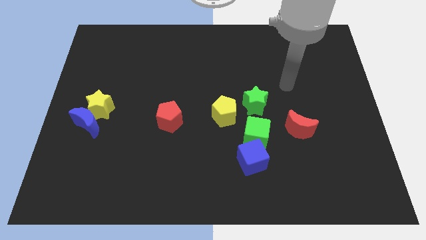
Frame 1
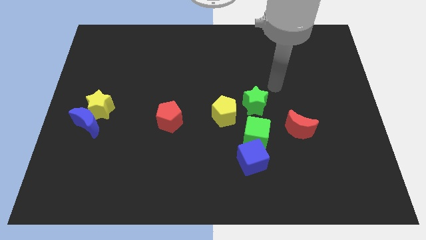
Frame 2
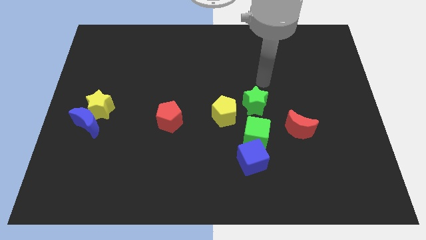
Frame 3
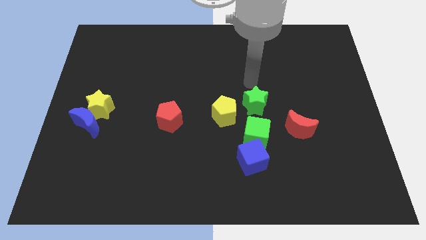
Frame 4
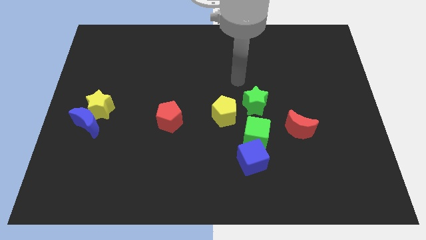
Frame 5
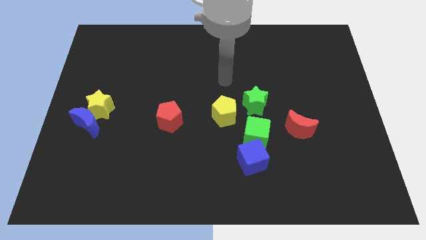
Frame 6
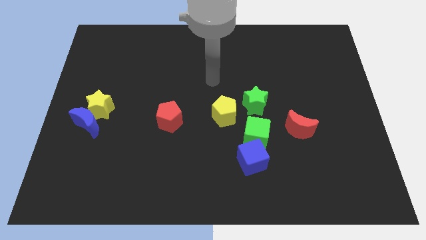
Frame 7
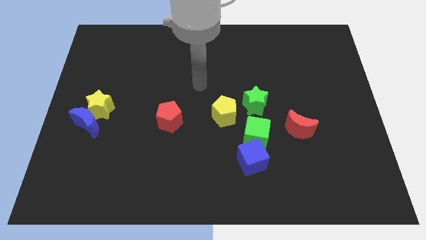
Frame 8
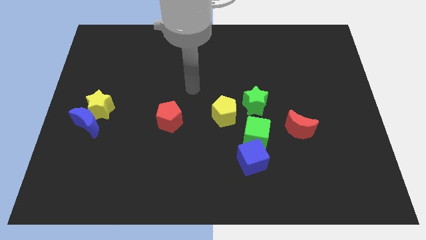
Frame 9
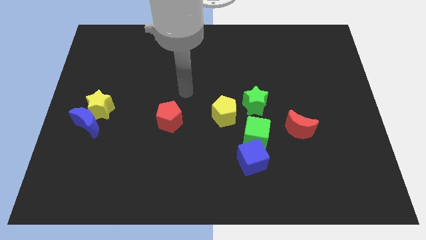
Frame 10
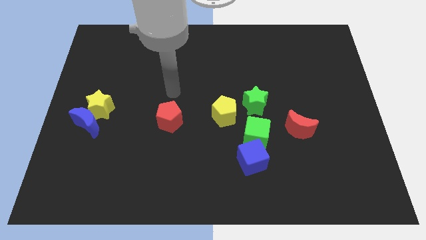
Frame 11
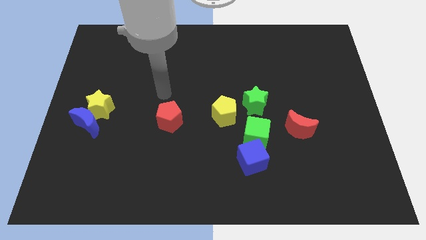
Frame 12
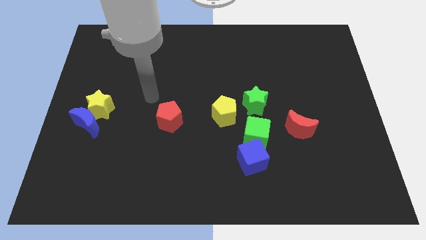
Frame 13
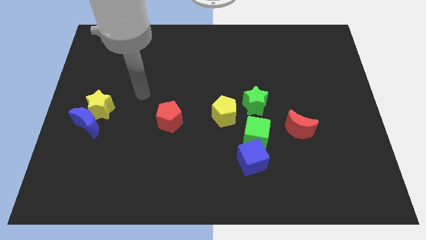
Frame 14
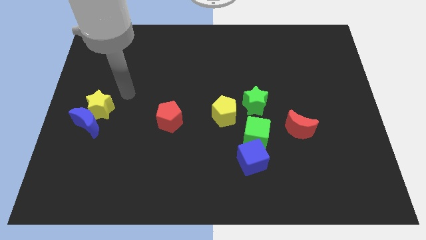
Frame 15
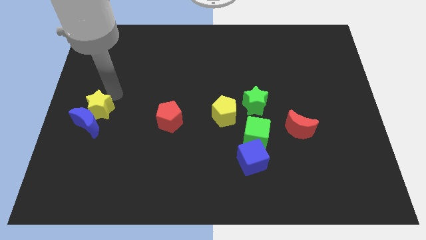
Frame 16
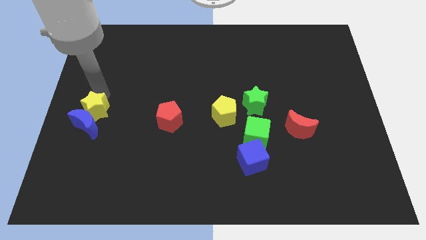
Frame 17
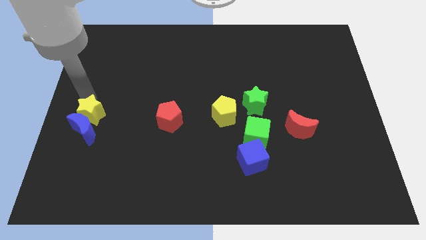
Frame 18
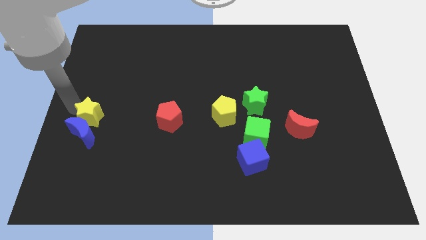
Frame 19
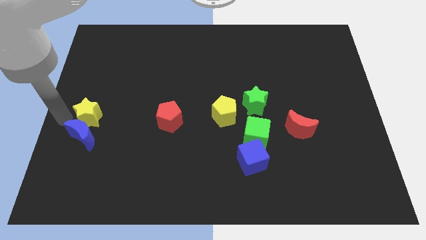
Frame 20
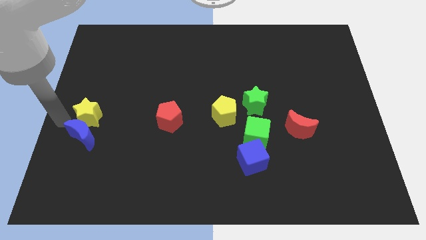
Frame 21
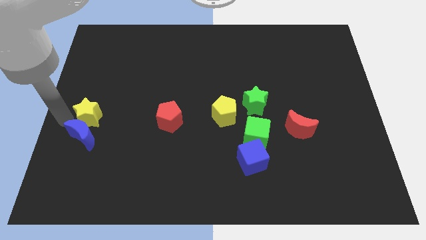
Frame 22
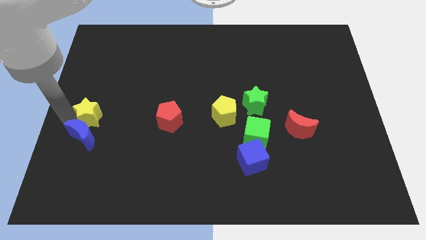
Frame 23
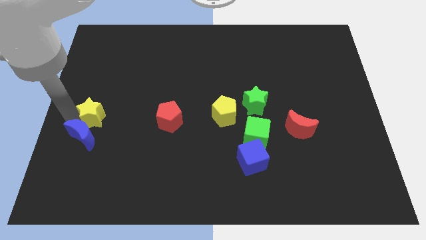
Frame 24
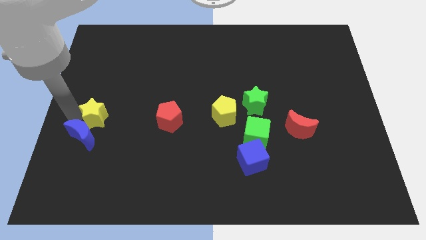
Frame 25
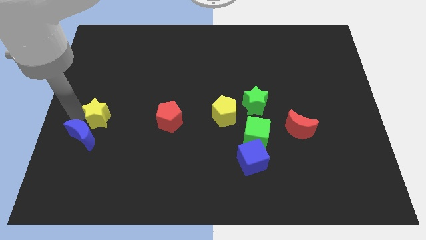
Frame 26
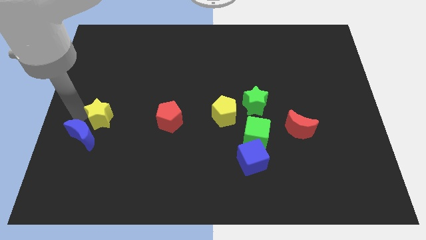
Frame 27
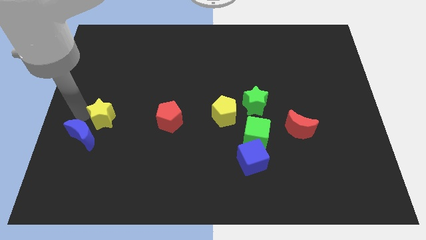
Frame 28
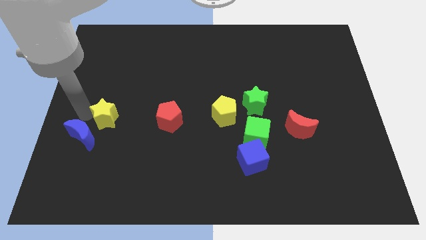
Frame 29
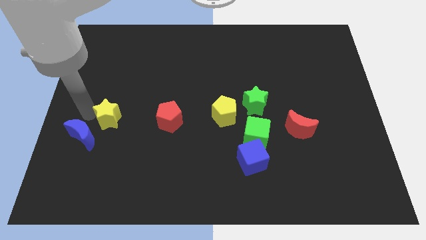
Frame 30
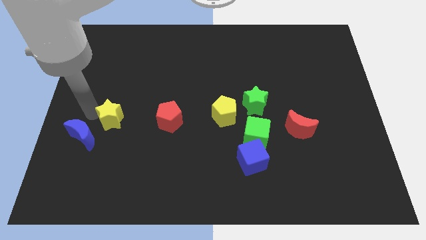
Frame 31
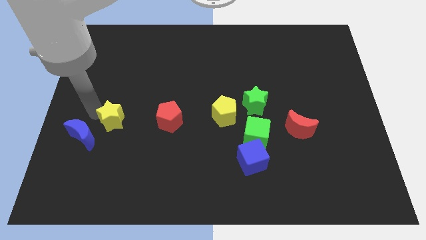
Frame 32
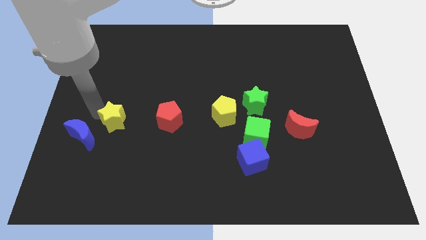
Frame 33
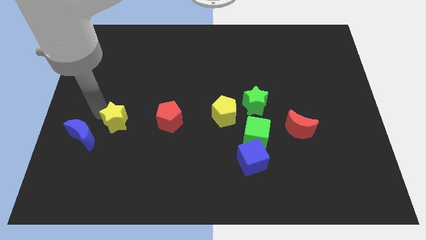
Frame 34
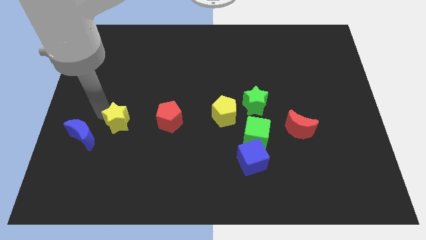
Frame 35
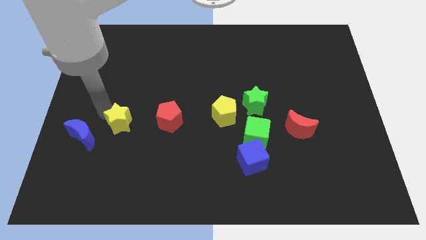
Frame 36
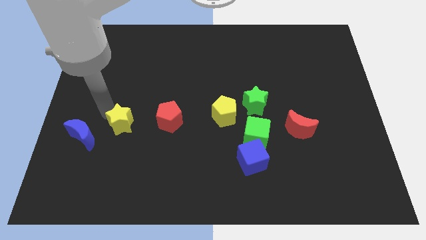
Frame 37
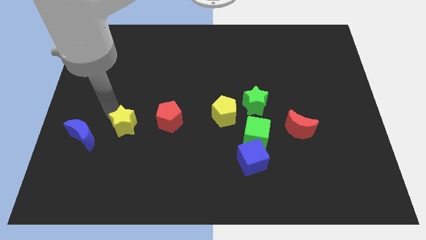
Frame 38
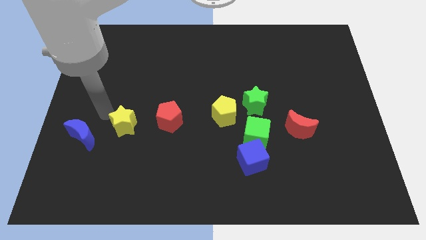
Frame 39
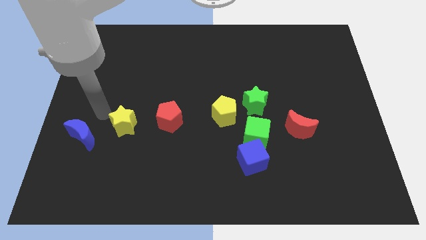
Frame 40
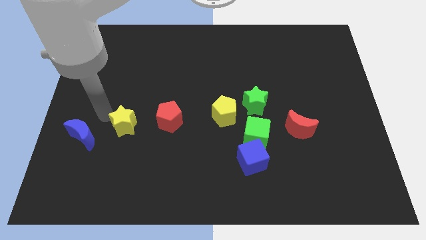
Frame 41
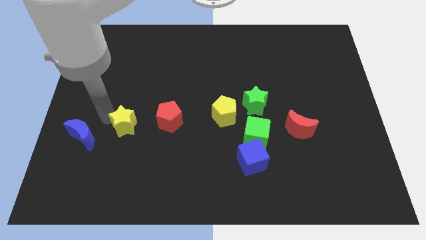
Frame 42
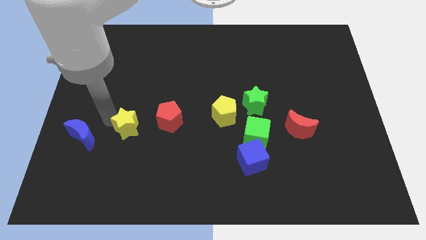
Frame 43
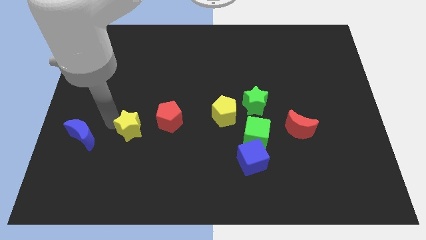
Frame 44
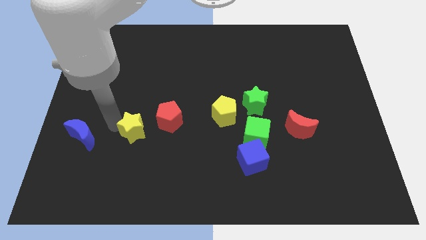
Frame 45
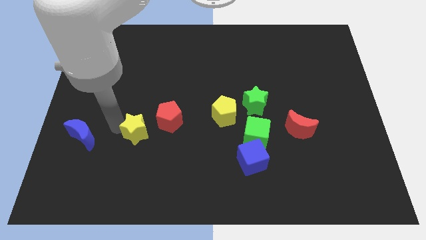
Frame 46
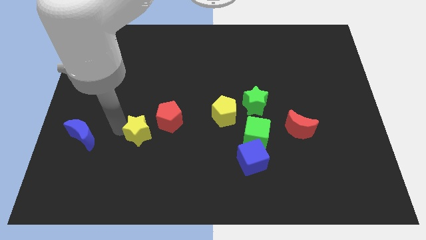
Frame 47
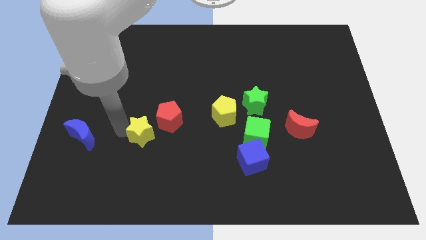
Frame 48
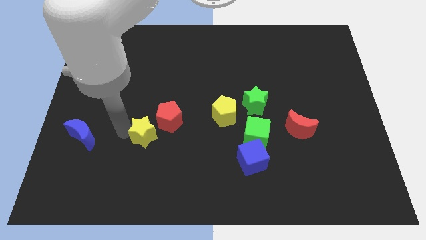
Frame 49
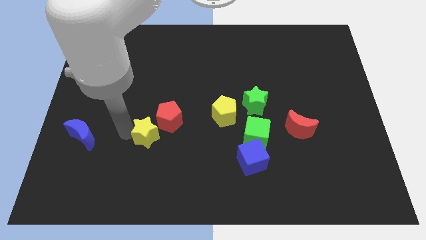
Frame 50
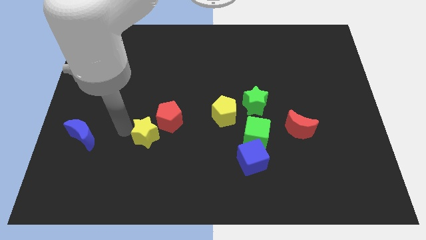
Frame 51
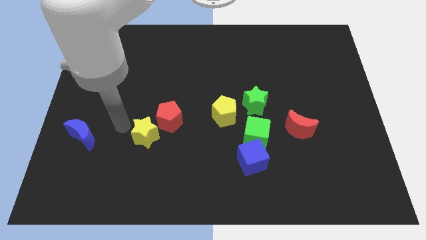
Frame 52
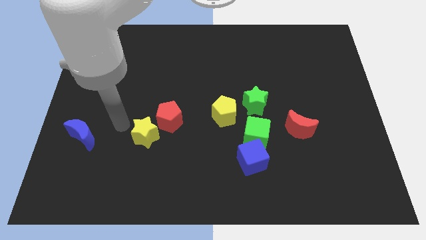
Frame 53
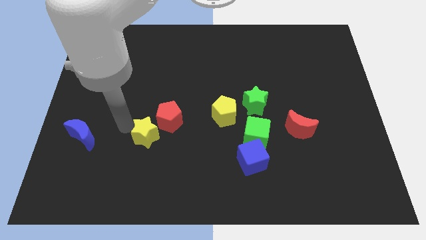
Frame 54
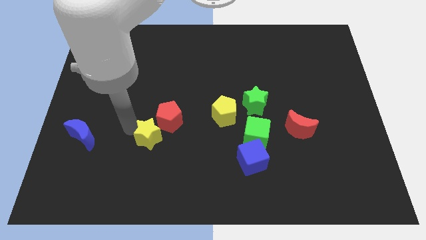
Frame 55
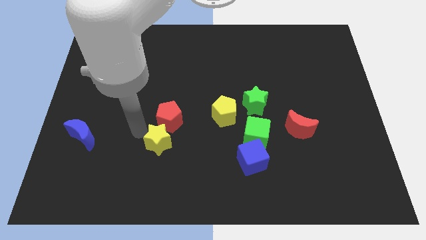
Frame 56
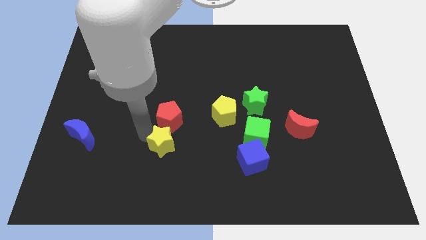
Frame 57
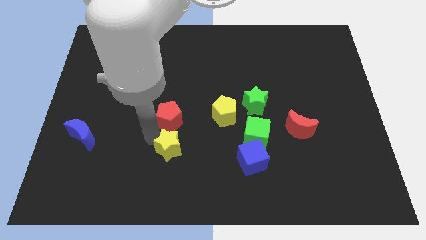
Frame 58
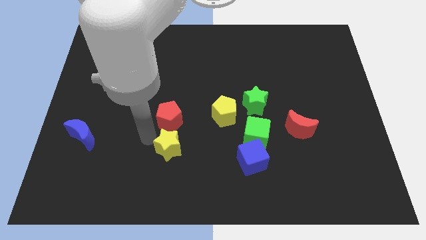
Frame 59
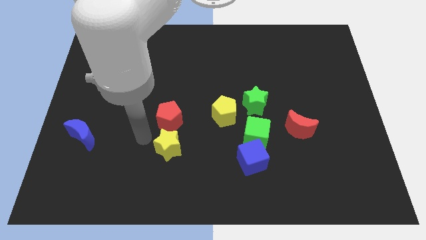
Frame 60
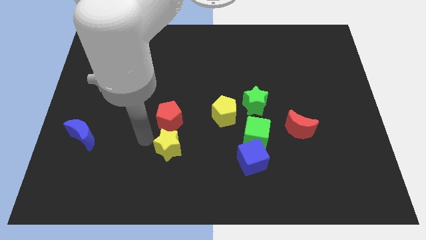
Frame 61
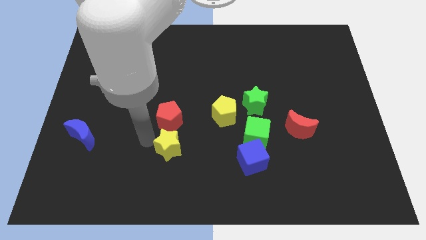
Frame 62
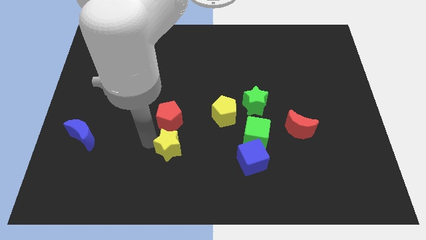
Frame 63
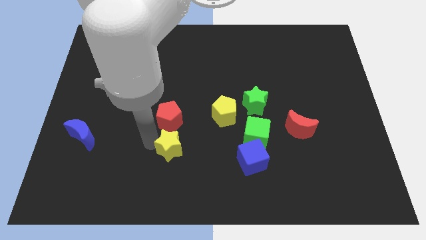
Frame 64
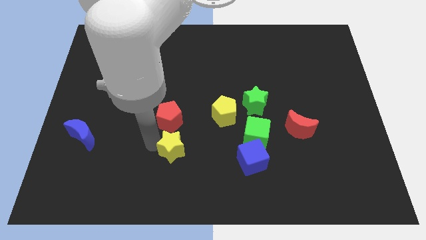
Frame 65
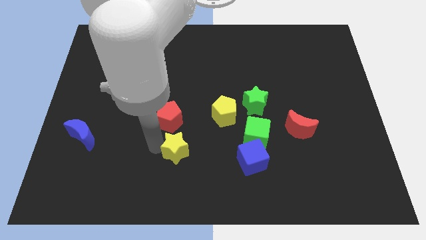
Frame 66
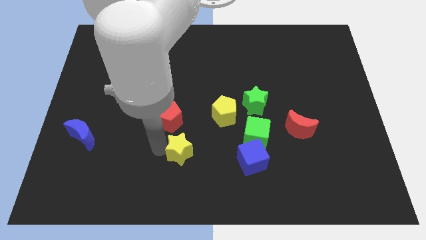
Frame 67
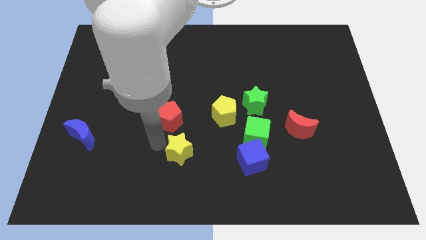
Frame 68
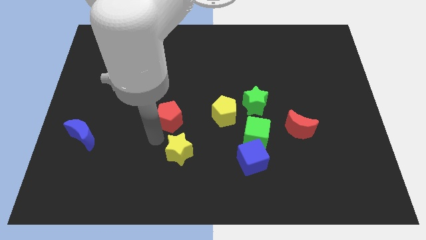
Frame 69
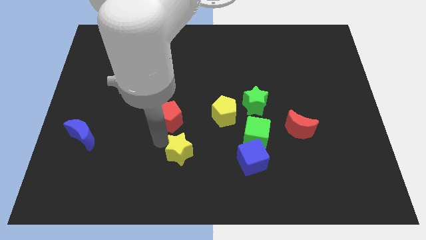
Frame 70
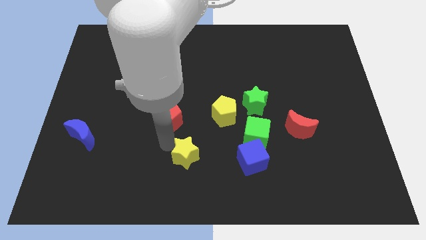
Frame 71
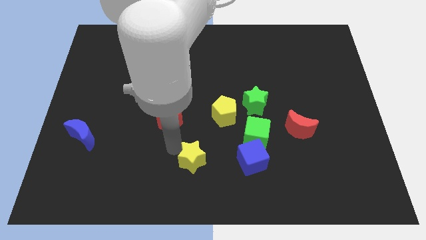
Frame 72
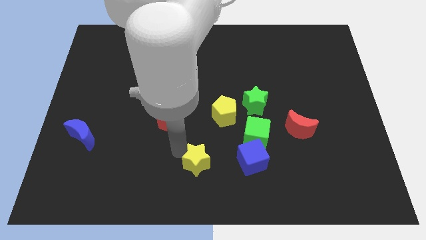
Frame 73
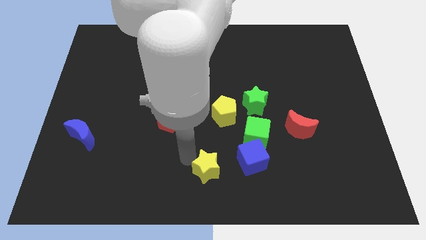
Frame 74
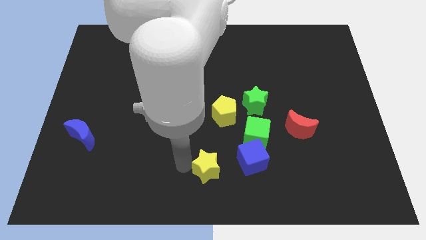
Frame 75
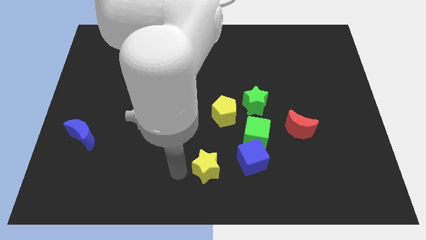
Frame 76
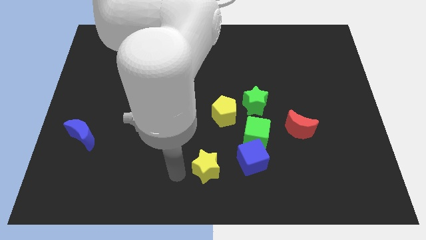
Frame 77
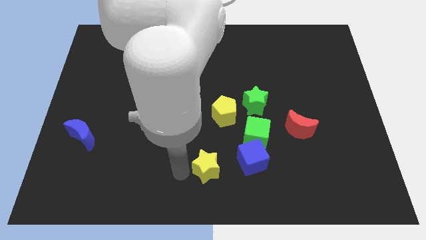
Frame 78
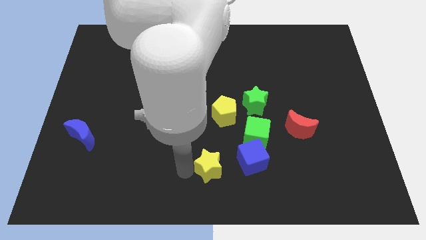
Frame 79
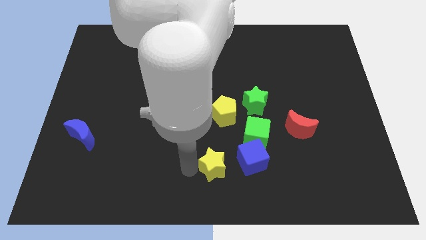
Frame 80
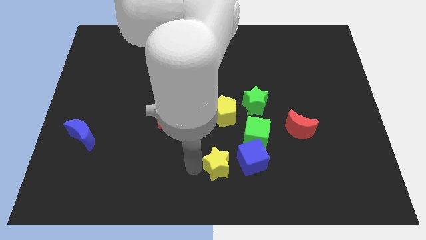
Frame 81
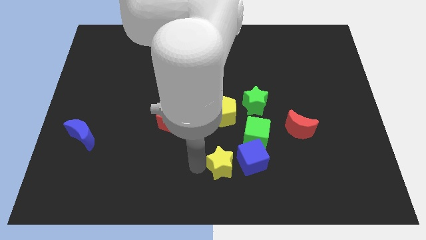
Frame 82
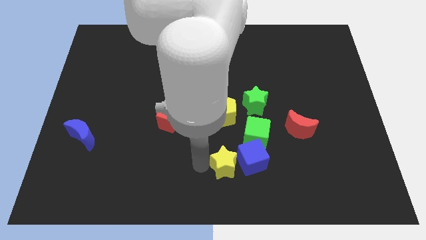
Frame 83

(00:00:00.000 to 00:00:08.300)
slide the yellow star close to the blue cube
